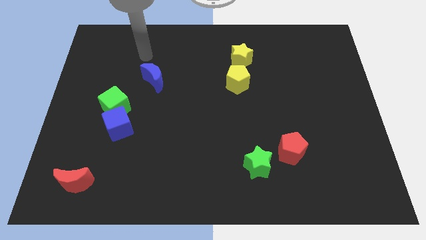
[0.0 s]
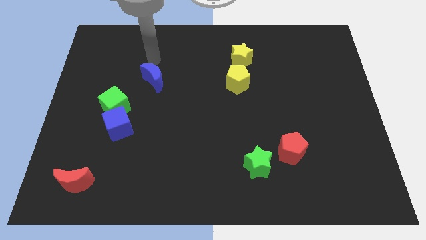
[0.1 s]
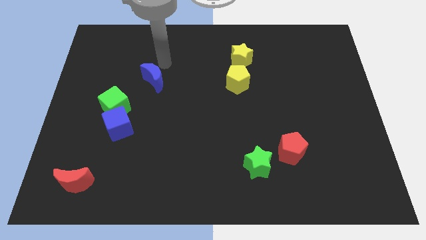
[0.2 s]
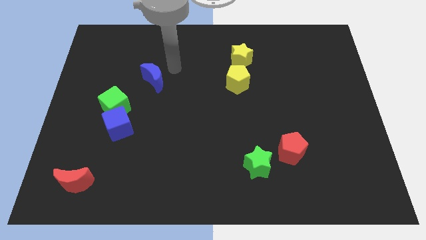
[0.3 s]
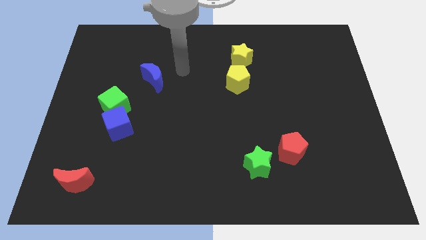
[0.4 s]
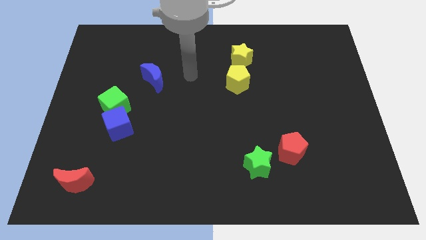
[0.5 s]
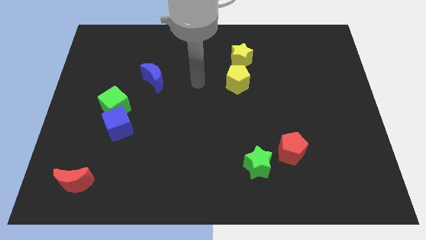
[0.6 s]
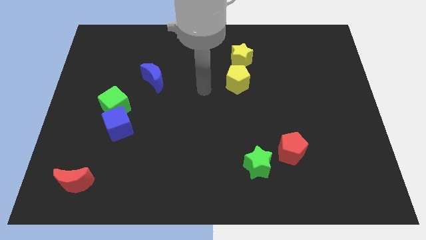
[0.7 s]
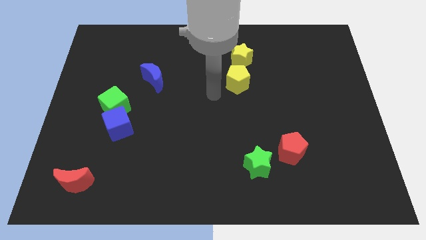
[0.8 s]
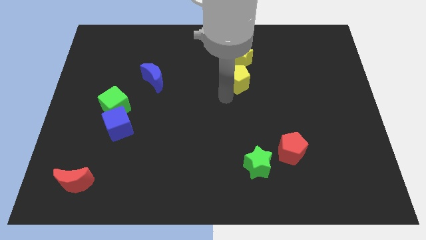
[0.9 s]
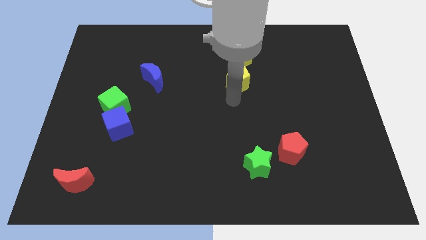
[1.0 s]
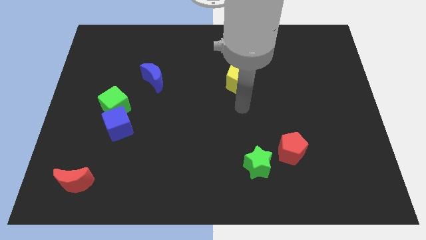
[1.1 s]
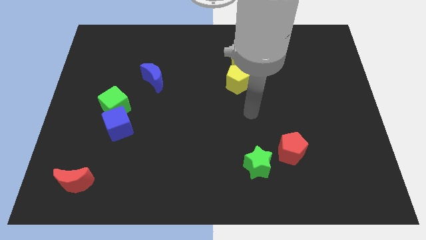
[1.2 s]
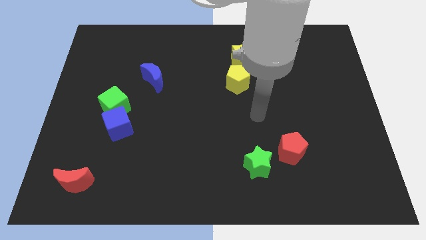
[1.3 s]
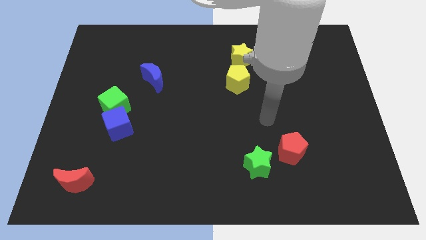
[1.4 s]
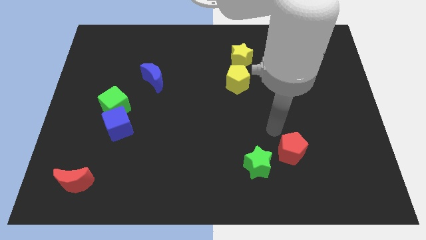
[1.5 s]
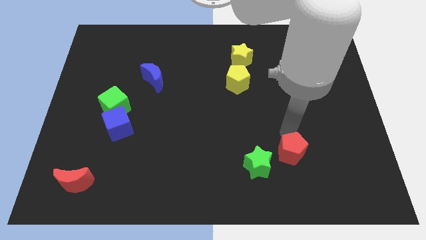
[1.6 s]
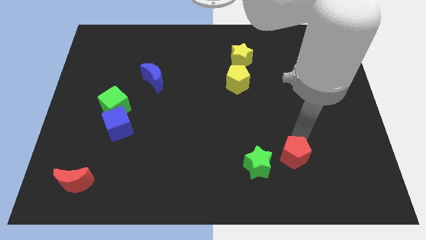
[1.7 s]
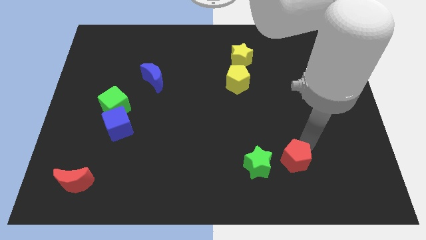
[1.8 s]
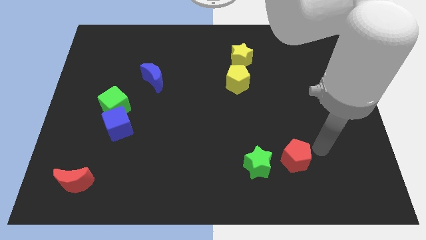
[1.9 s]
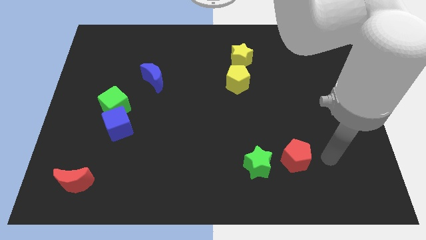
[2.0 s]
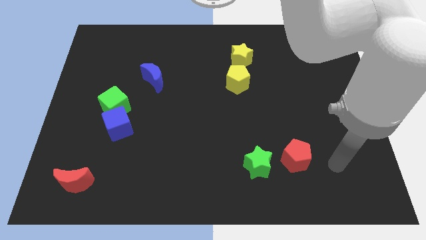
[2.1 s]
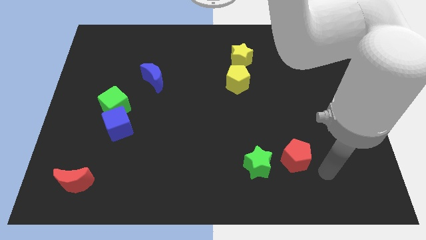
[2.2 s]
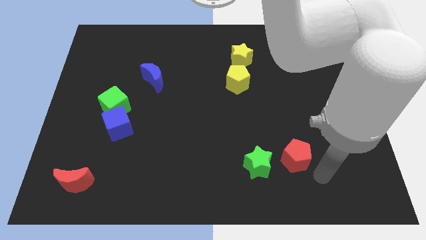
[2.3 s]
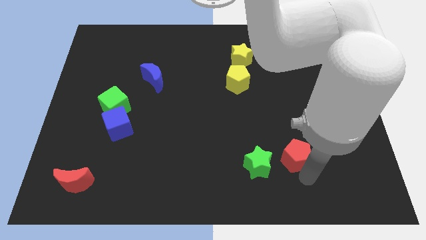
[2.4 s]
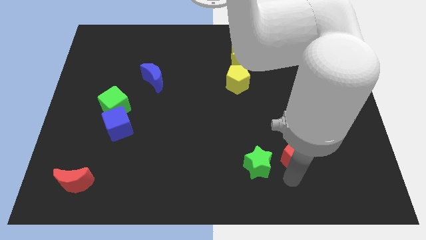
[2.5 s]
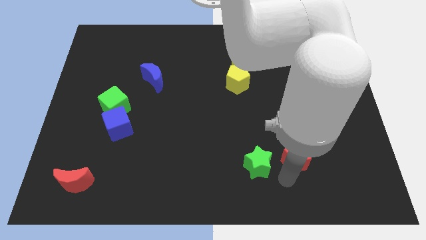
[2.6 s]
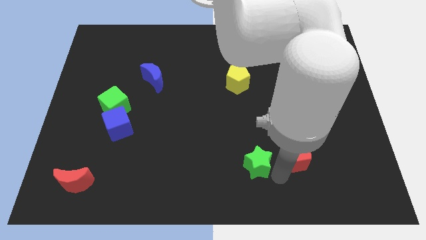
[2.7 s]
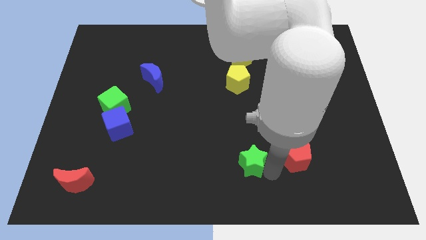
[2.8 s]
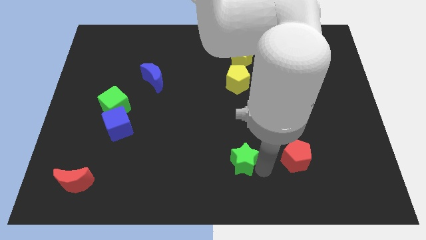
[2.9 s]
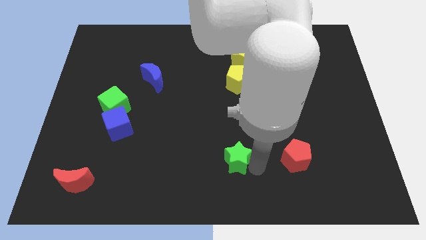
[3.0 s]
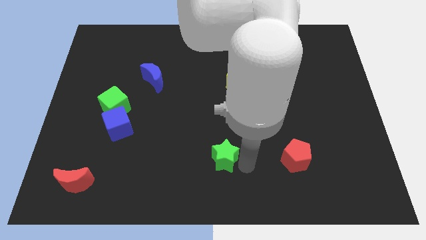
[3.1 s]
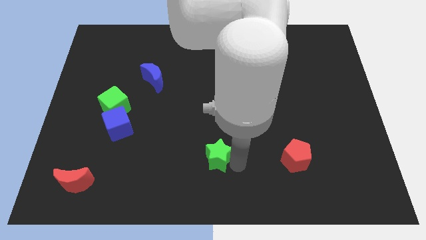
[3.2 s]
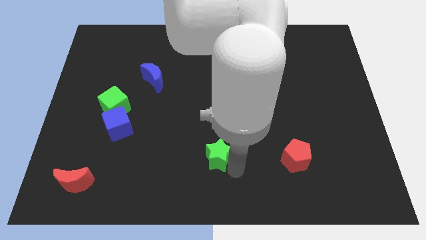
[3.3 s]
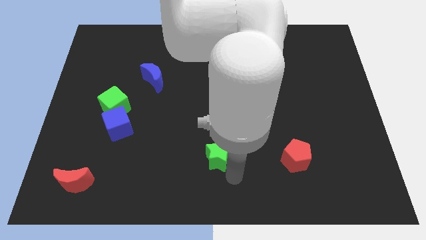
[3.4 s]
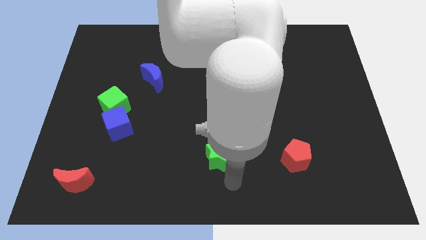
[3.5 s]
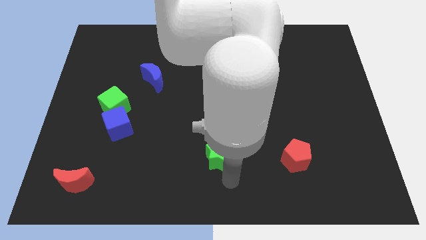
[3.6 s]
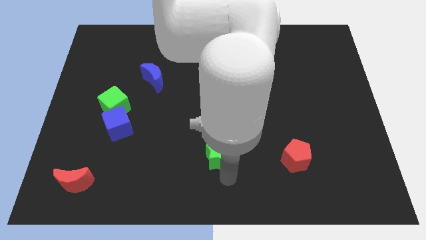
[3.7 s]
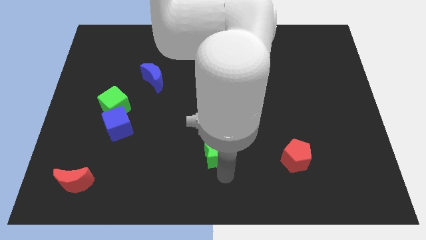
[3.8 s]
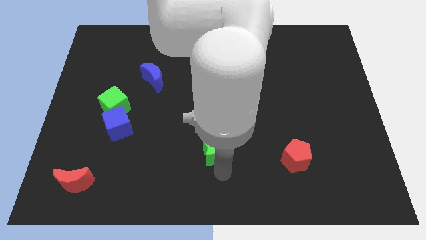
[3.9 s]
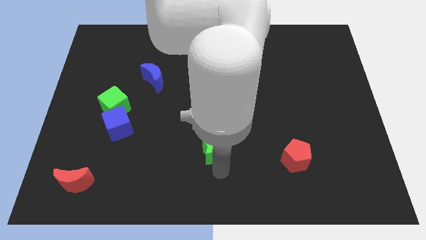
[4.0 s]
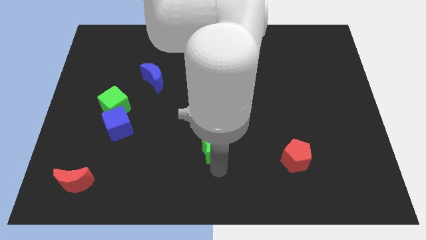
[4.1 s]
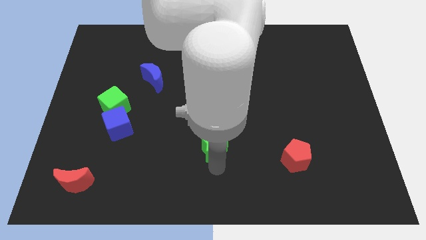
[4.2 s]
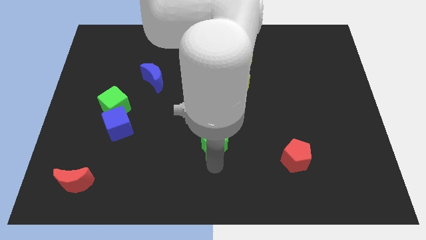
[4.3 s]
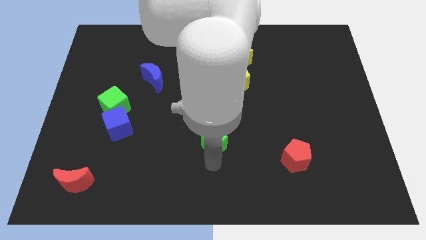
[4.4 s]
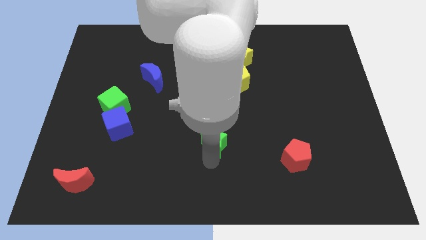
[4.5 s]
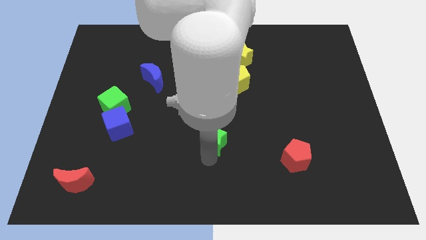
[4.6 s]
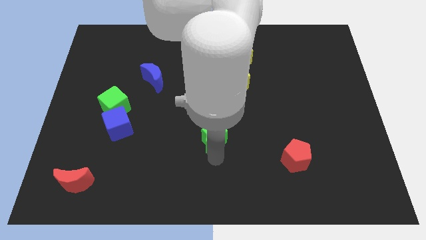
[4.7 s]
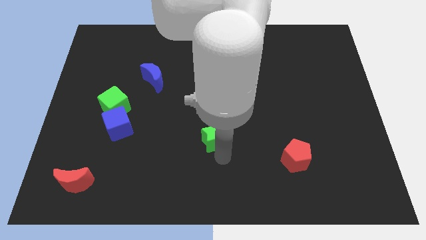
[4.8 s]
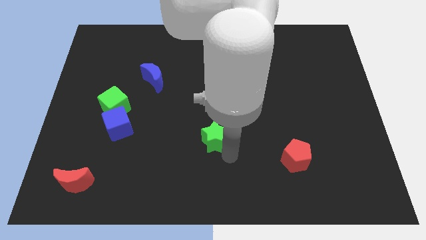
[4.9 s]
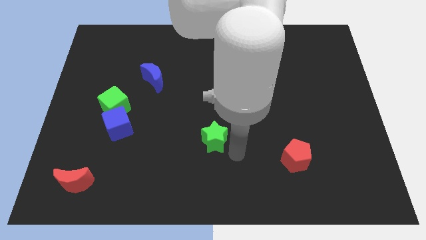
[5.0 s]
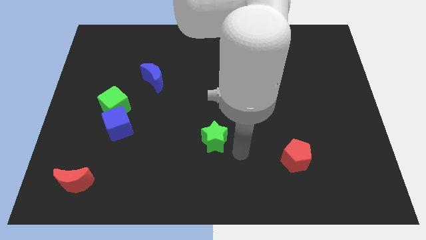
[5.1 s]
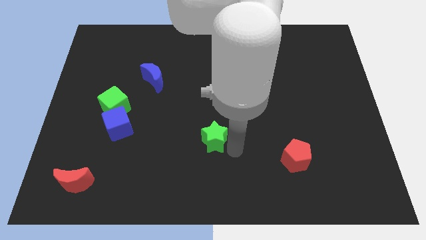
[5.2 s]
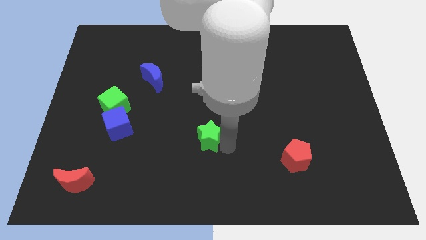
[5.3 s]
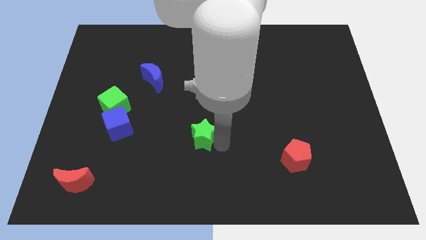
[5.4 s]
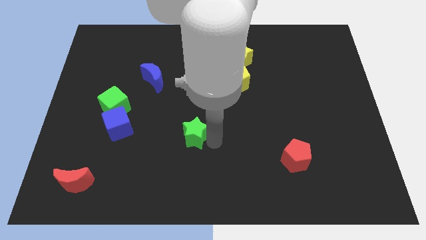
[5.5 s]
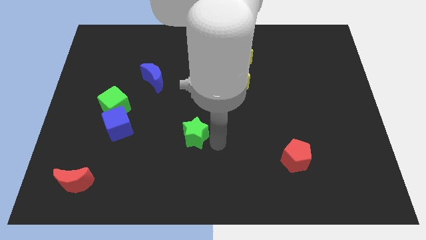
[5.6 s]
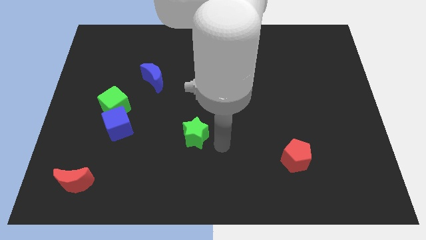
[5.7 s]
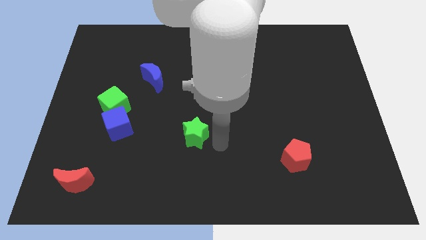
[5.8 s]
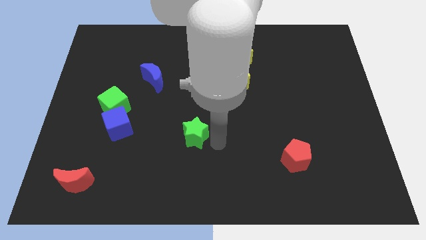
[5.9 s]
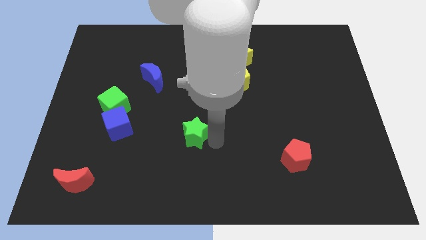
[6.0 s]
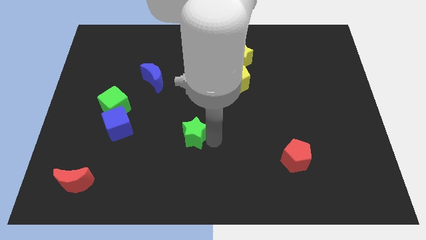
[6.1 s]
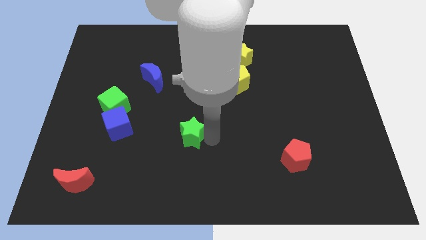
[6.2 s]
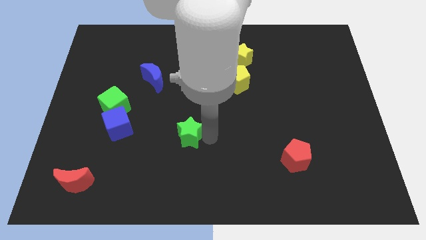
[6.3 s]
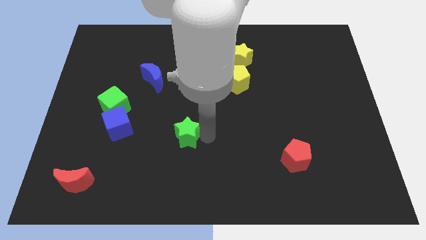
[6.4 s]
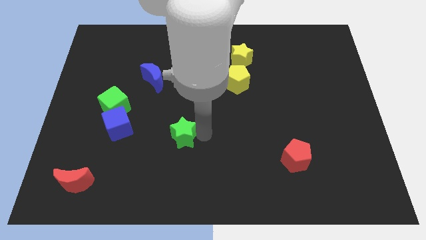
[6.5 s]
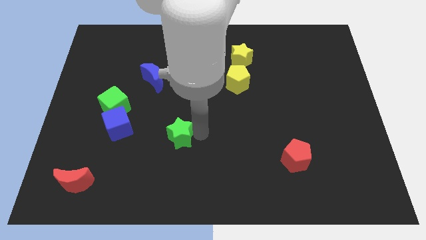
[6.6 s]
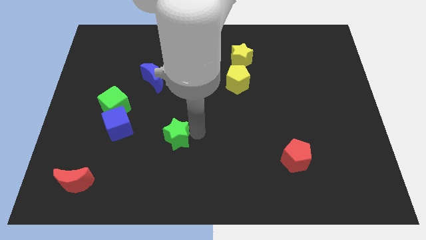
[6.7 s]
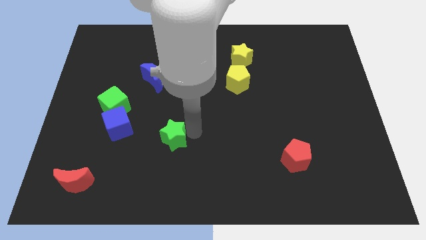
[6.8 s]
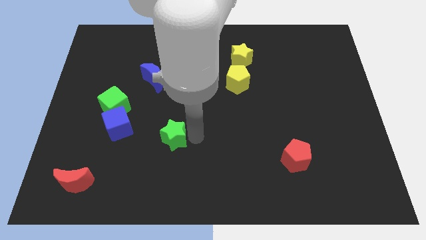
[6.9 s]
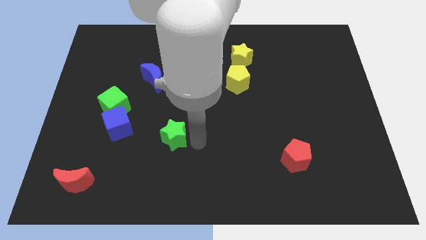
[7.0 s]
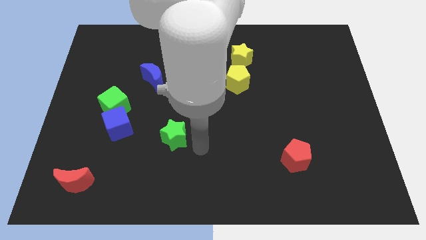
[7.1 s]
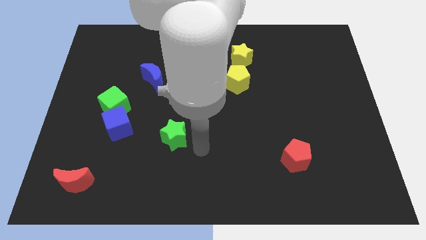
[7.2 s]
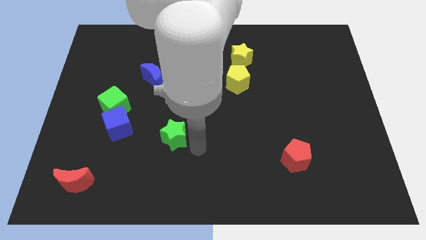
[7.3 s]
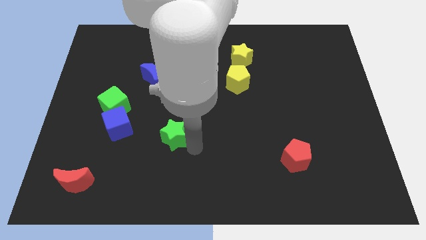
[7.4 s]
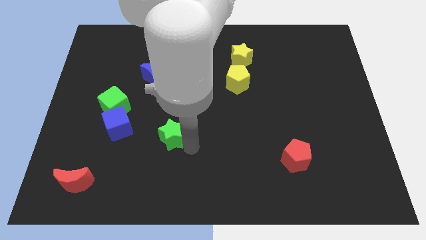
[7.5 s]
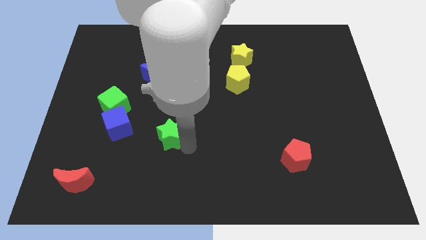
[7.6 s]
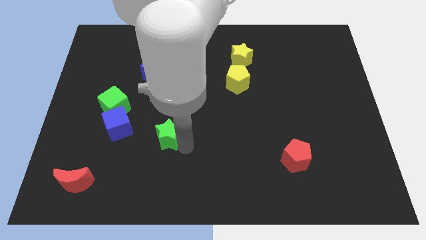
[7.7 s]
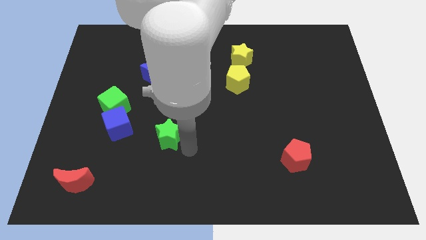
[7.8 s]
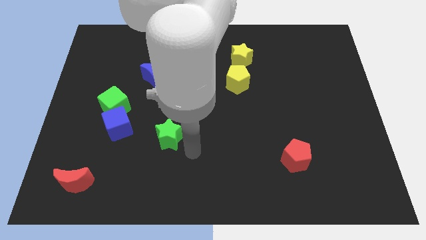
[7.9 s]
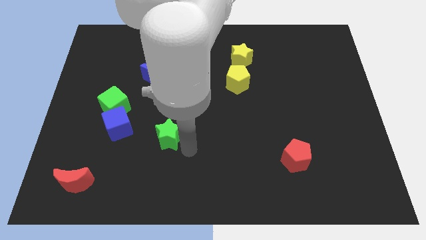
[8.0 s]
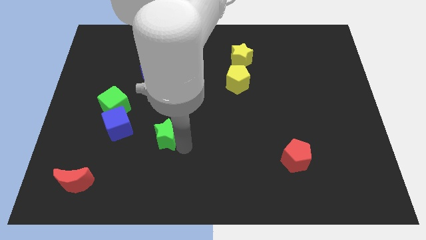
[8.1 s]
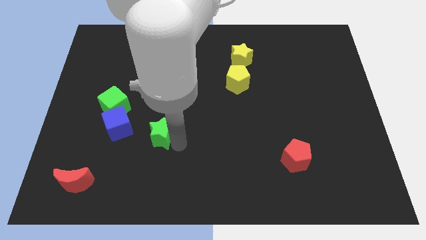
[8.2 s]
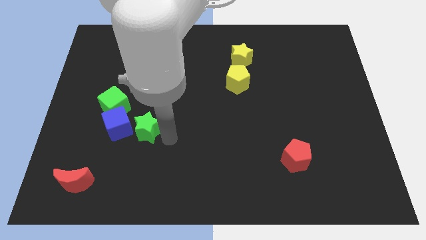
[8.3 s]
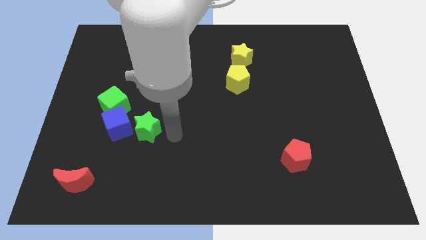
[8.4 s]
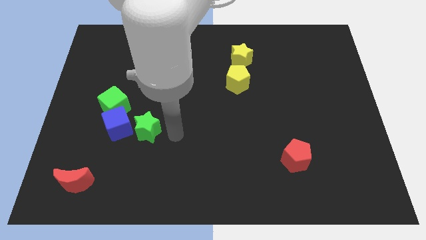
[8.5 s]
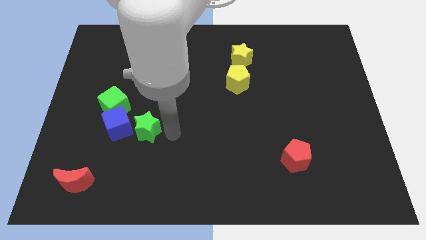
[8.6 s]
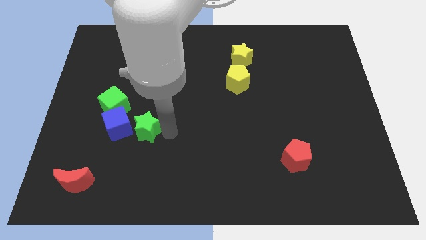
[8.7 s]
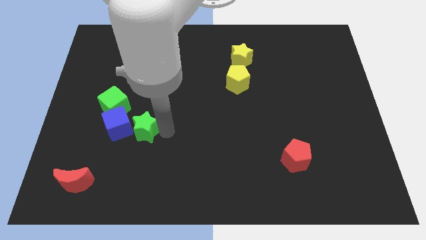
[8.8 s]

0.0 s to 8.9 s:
push the green star to the blue cube
